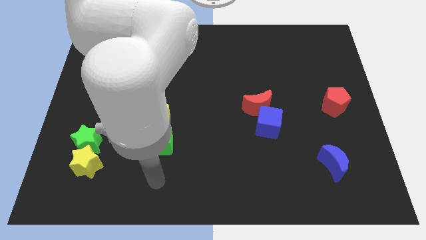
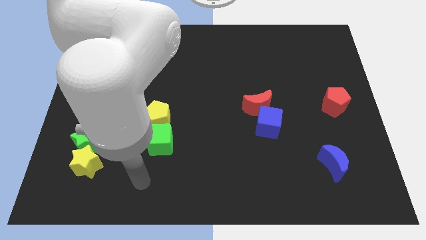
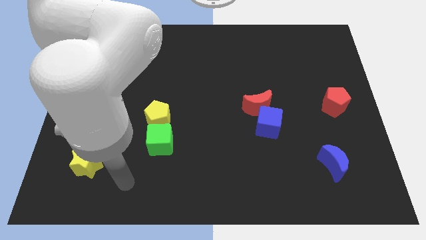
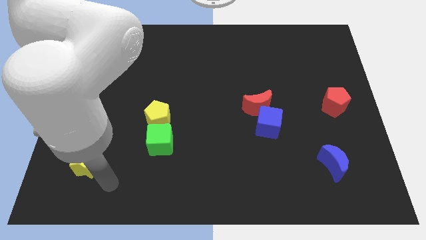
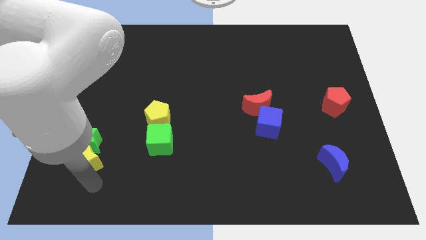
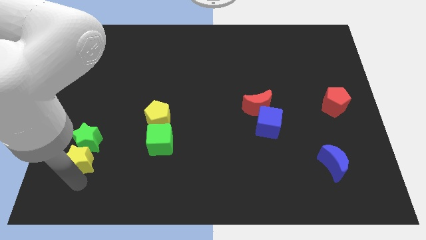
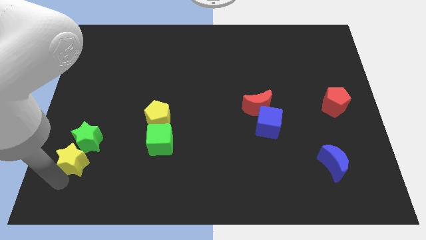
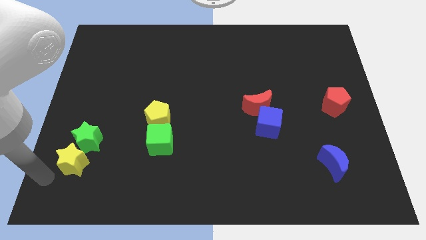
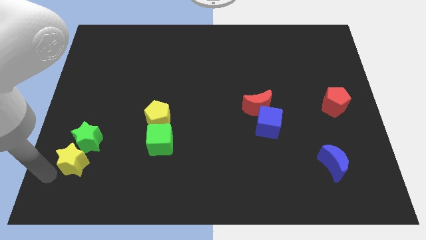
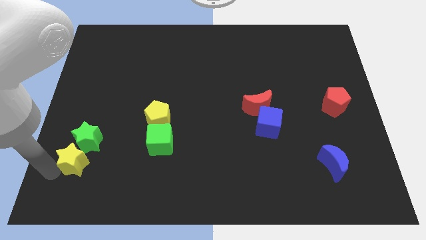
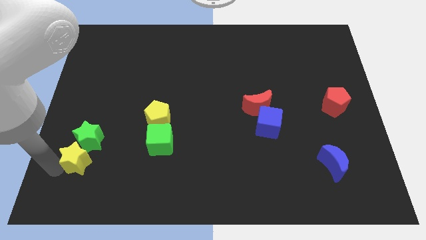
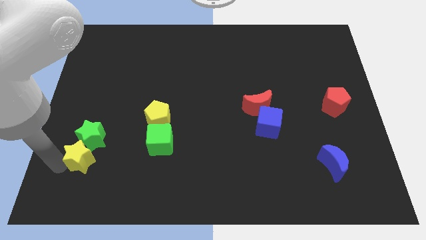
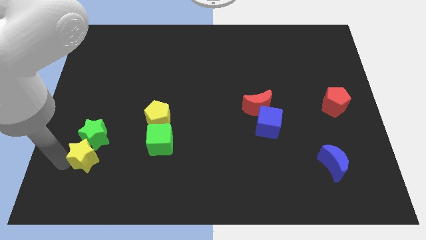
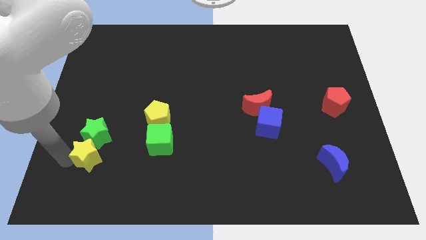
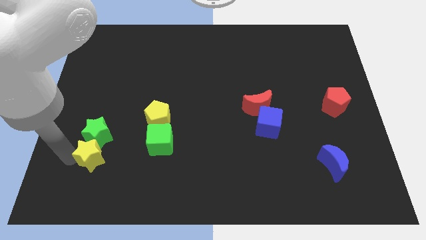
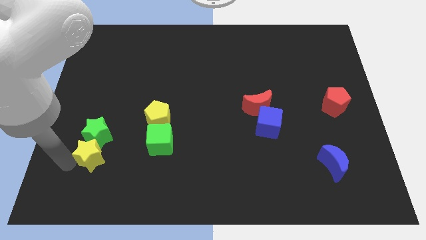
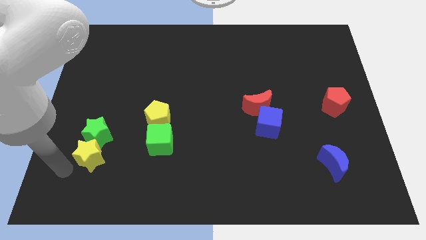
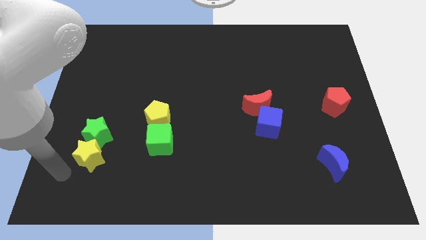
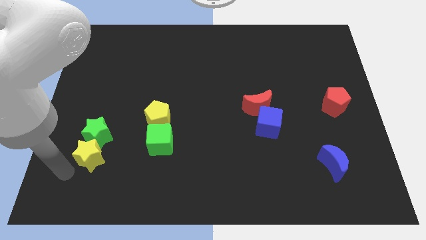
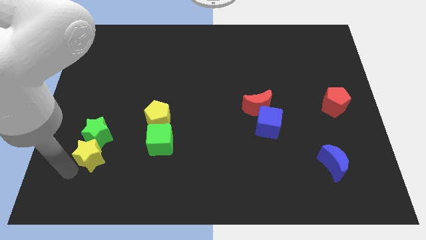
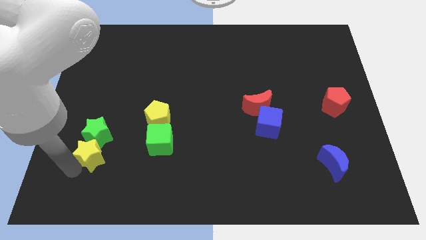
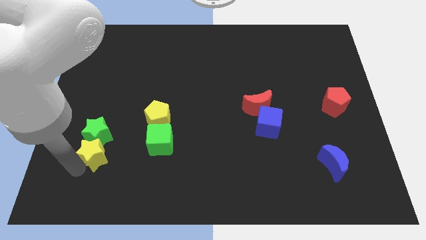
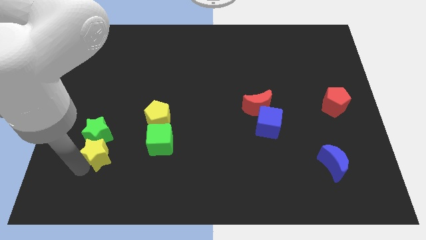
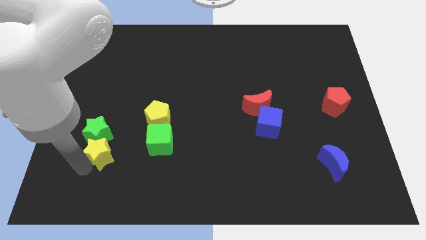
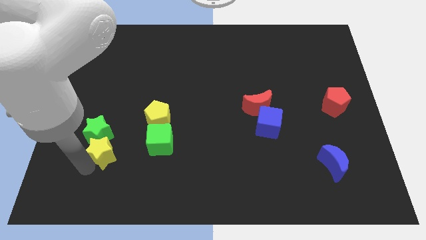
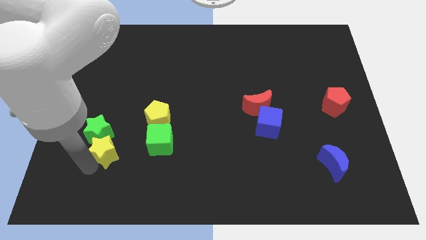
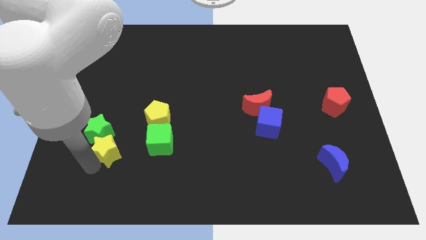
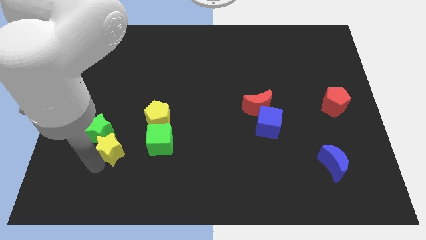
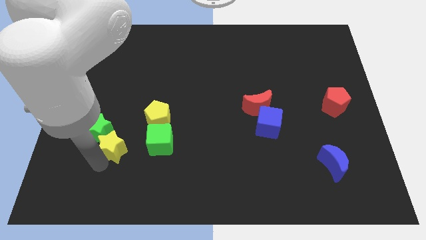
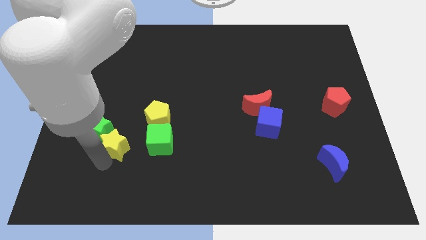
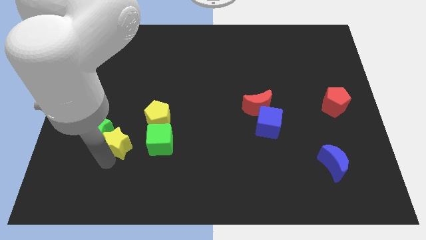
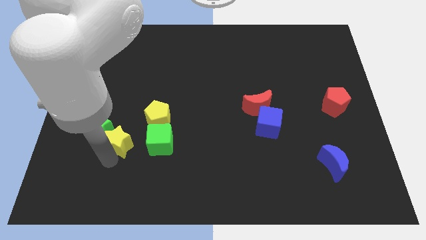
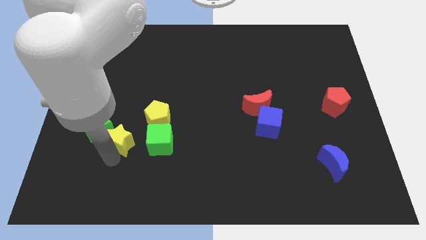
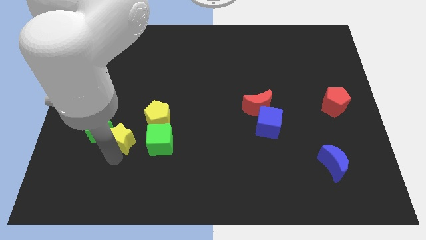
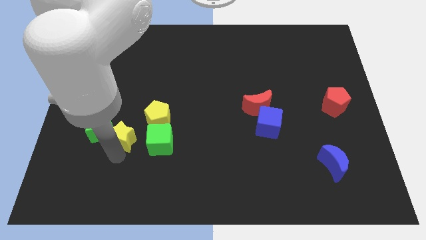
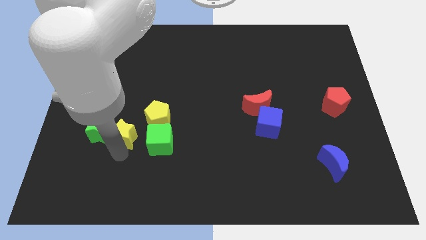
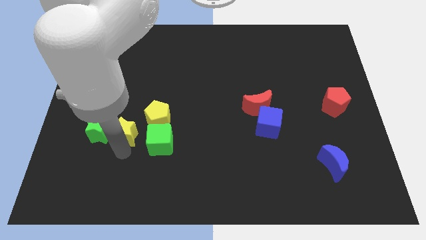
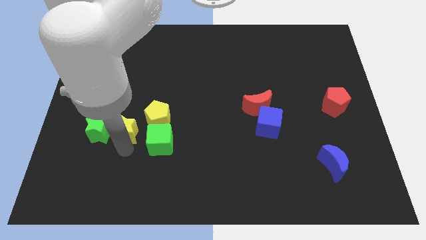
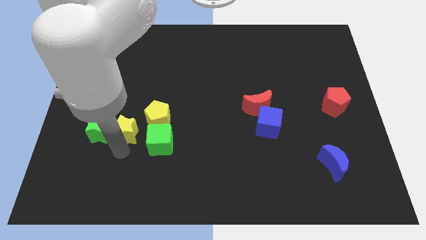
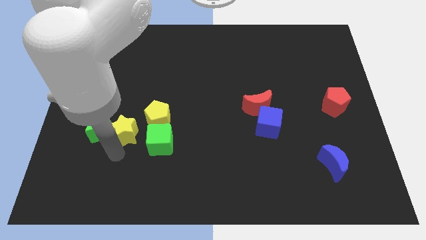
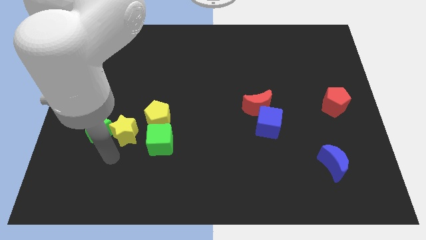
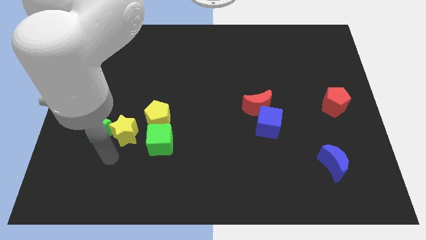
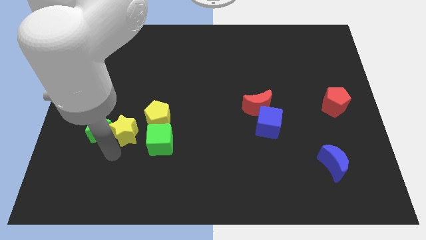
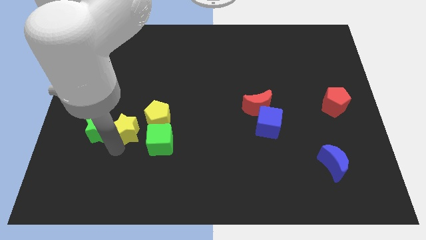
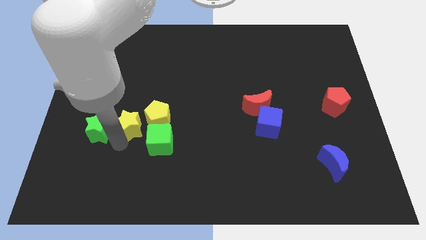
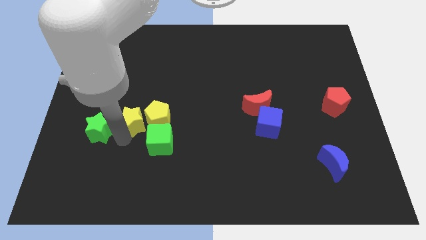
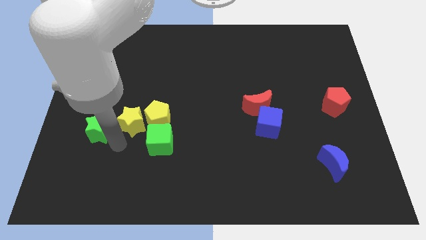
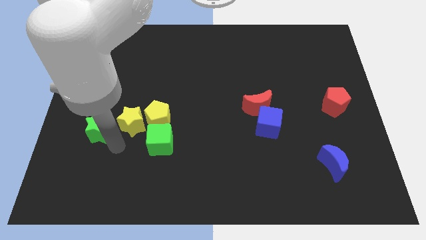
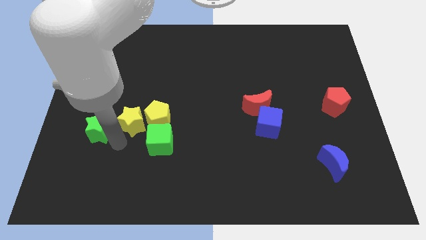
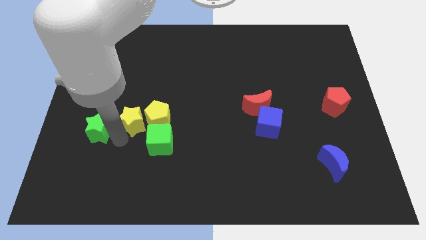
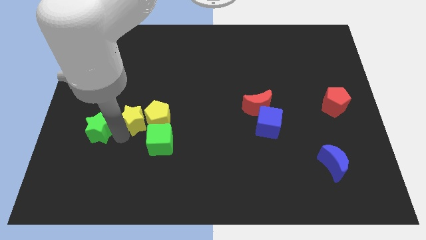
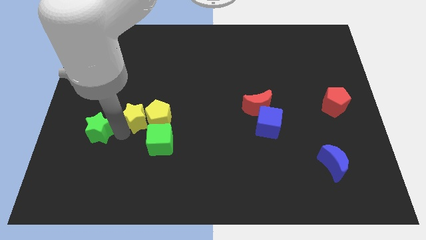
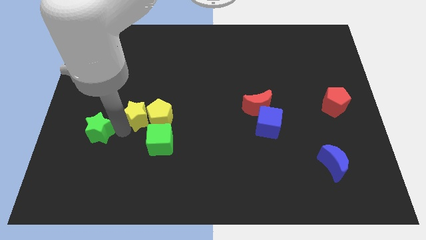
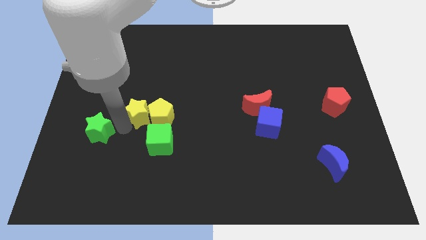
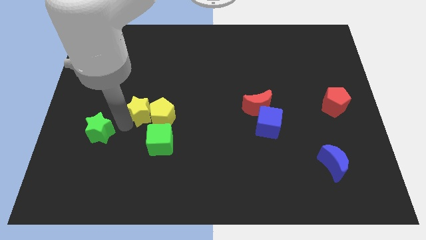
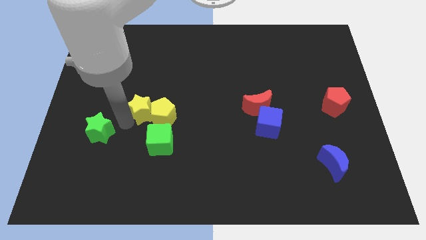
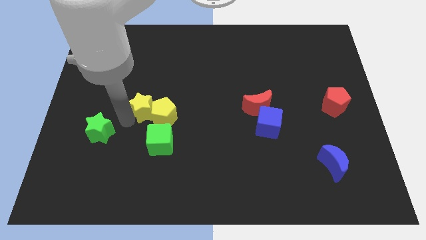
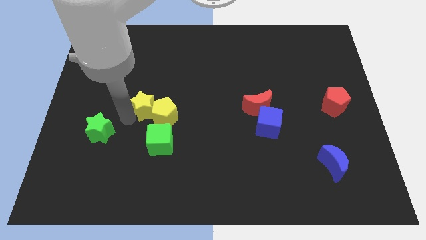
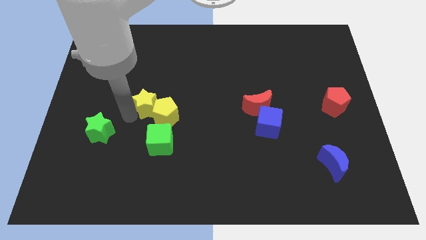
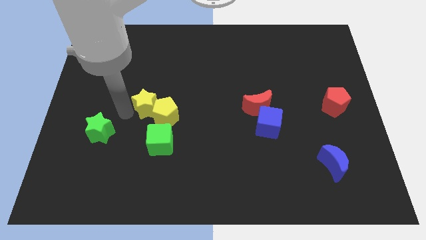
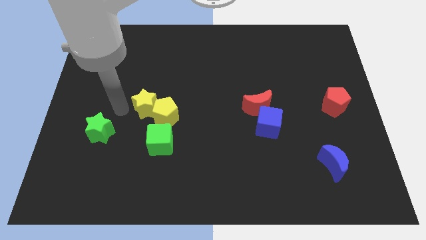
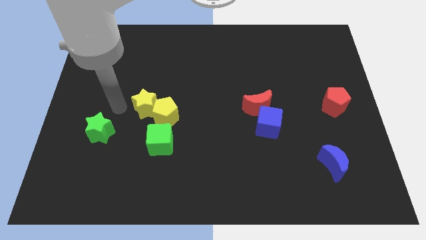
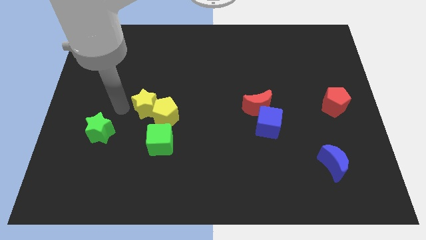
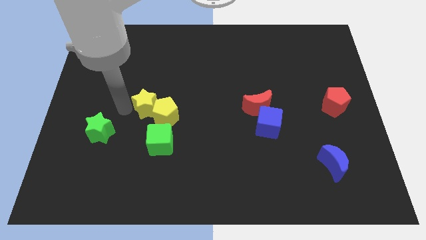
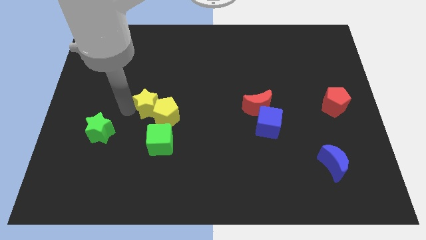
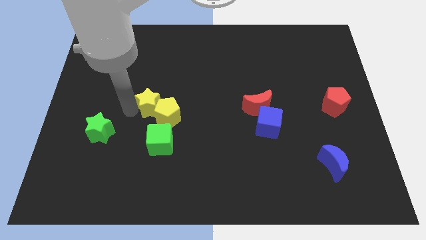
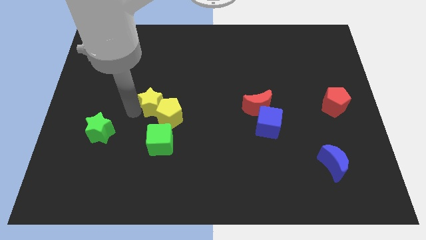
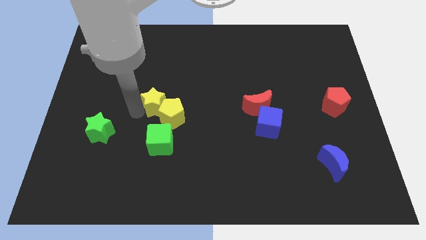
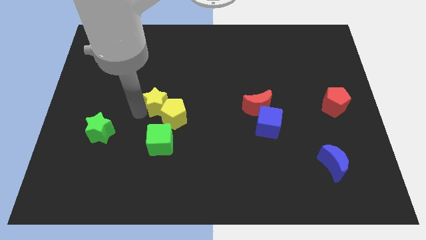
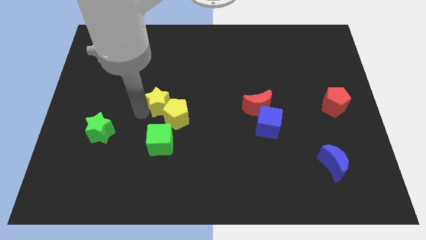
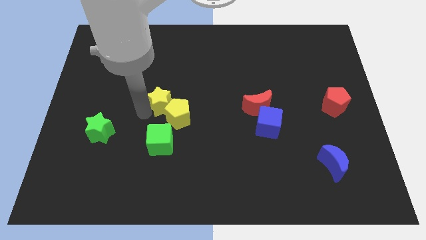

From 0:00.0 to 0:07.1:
push the yellow star to the center of the board

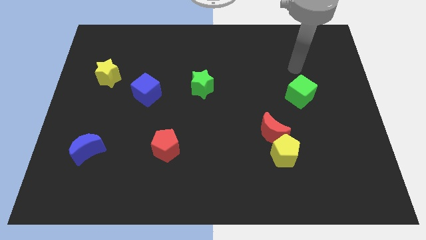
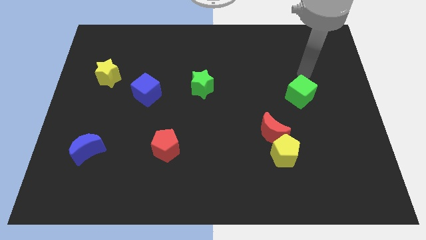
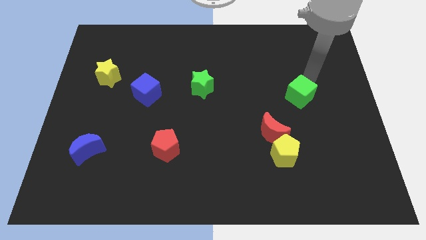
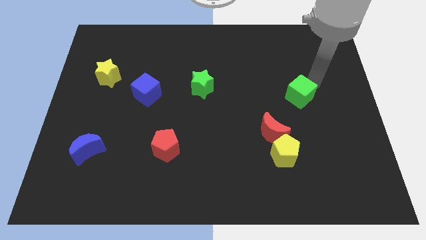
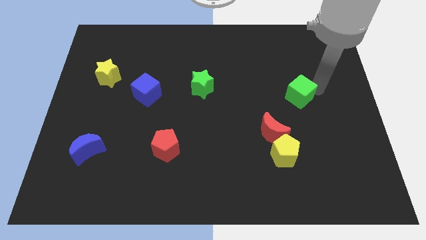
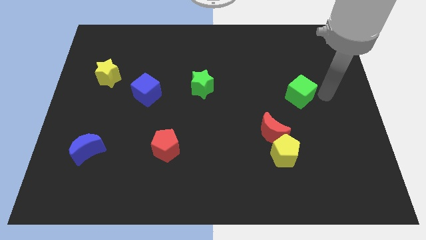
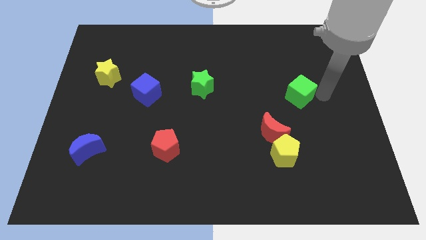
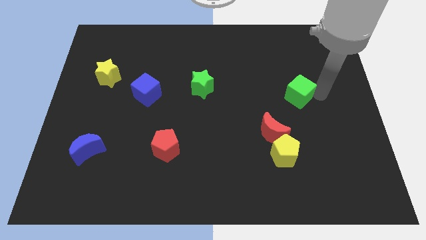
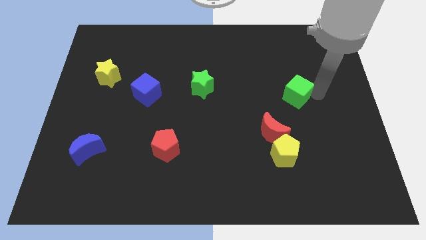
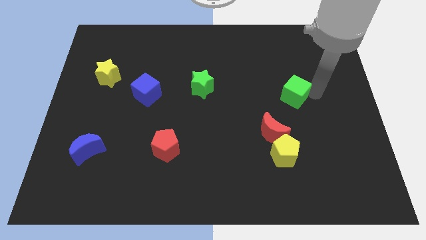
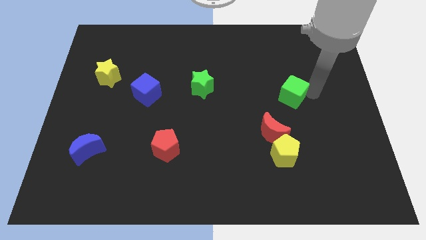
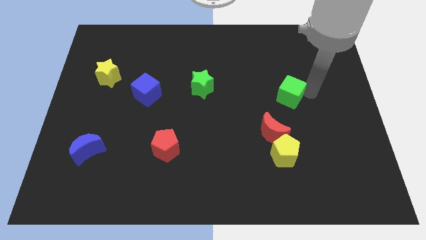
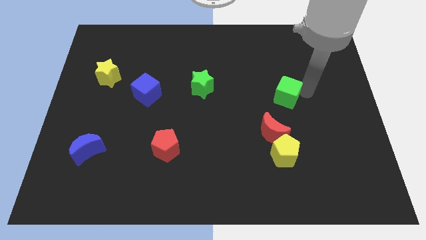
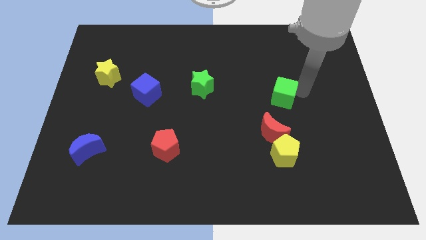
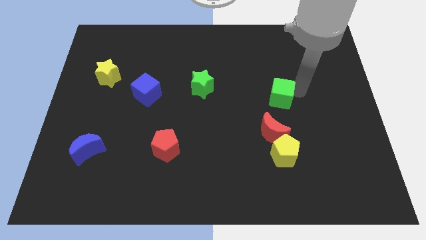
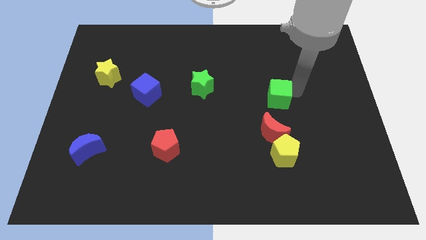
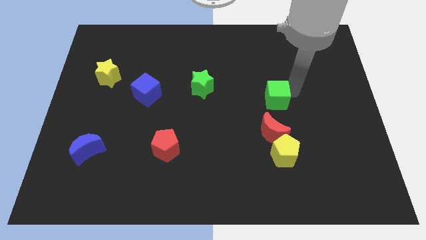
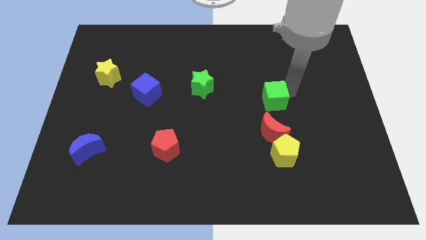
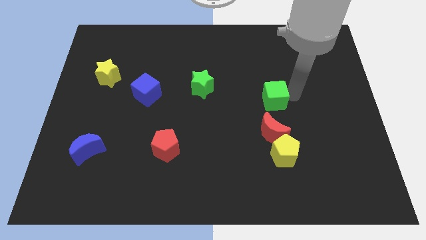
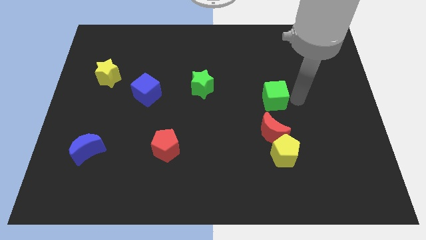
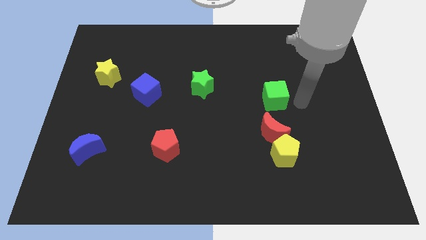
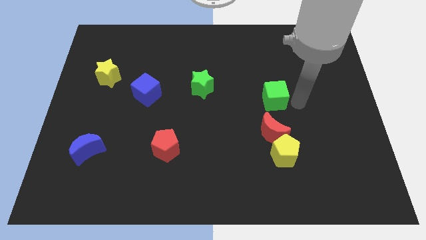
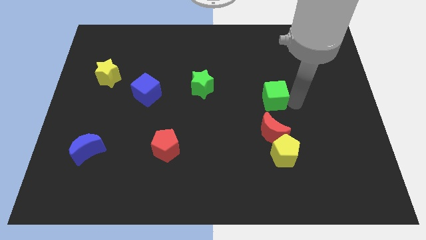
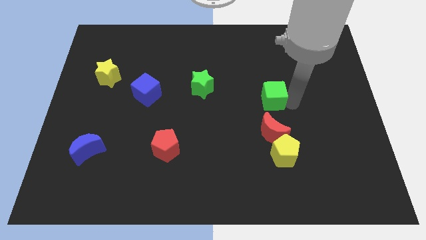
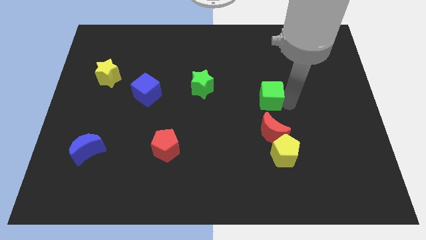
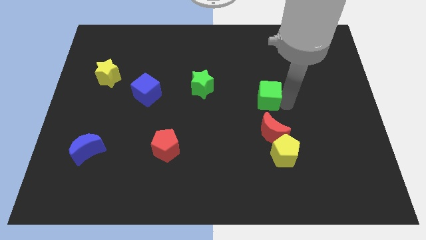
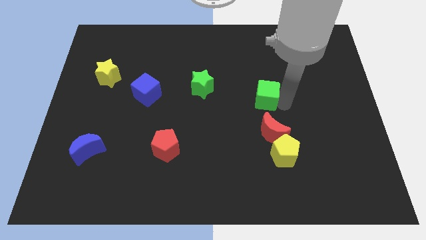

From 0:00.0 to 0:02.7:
push the green cube to the middle of the board
